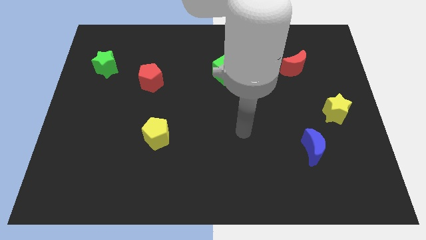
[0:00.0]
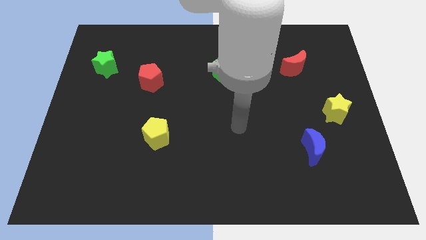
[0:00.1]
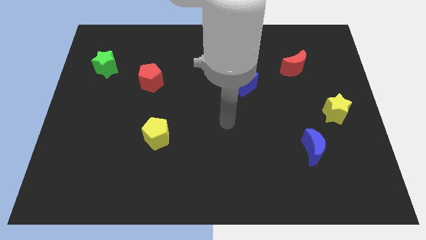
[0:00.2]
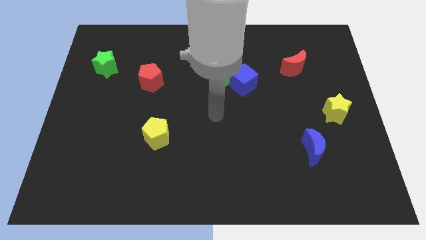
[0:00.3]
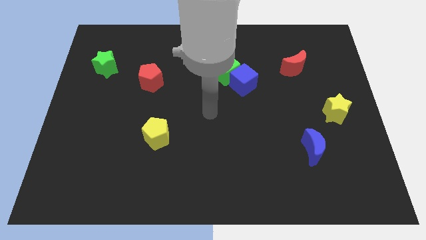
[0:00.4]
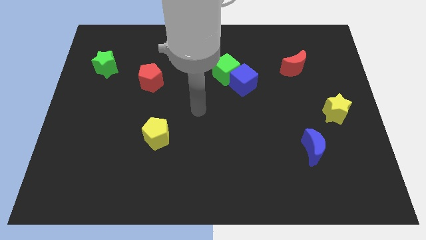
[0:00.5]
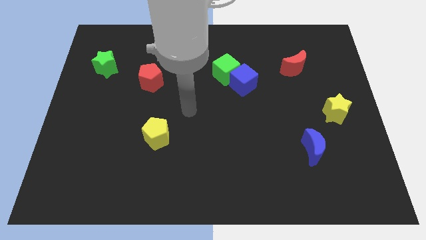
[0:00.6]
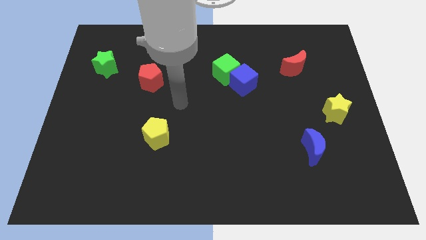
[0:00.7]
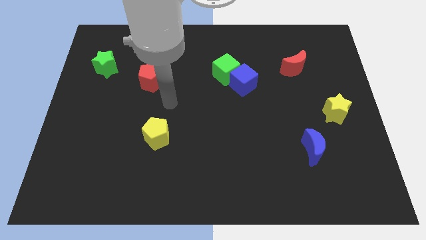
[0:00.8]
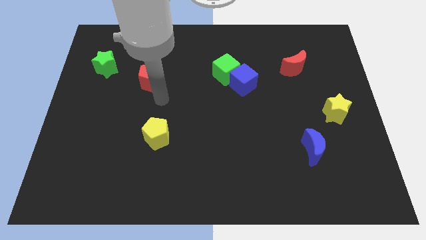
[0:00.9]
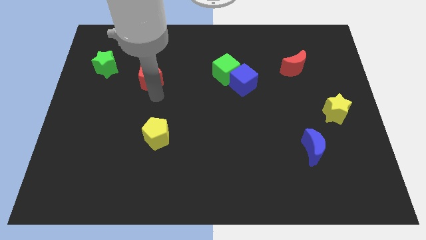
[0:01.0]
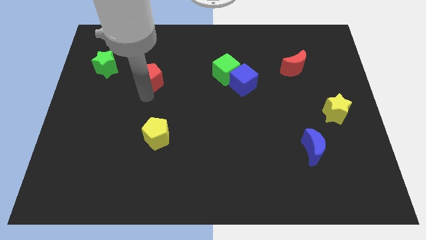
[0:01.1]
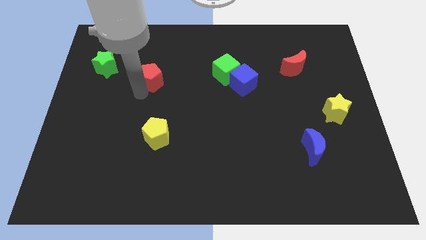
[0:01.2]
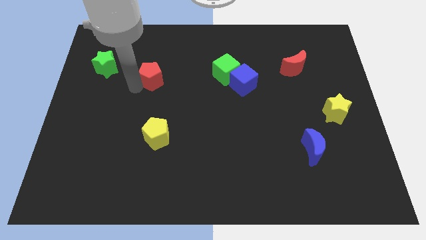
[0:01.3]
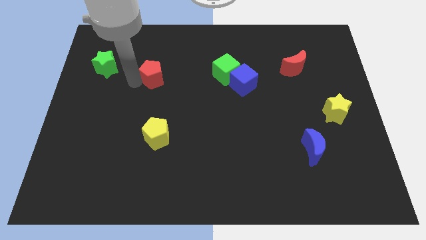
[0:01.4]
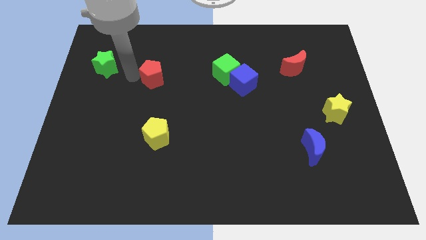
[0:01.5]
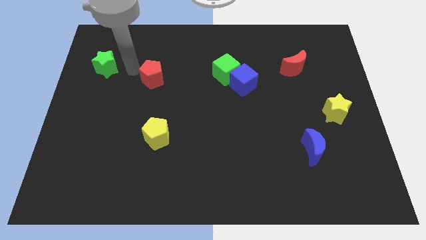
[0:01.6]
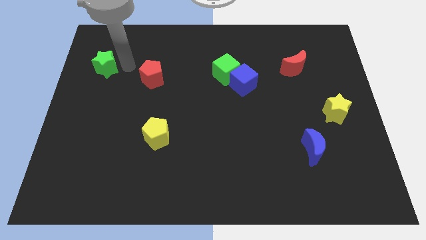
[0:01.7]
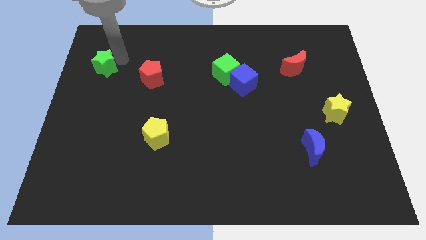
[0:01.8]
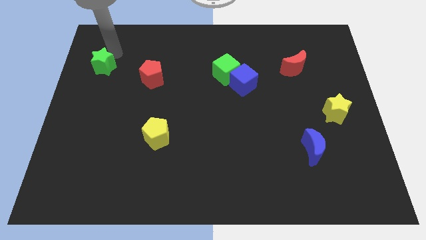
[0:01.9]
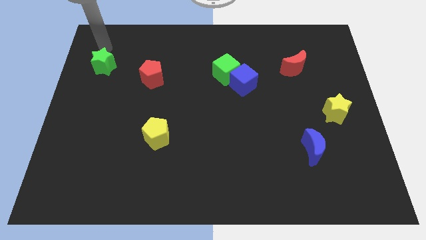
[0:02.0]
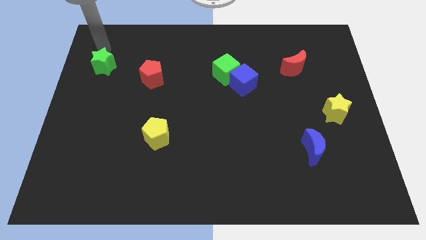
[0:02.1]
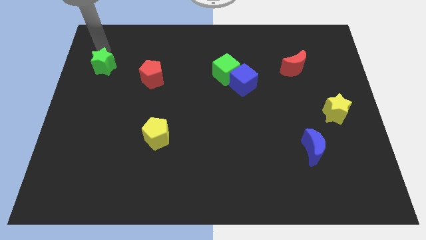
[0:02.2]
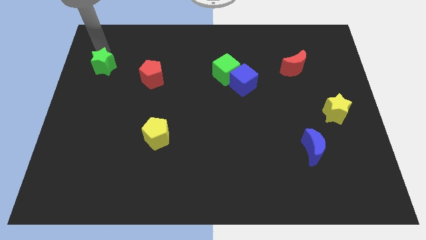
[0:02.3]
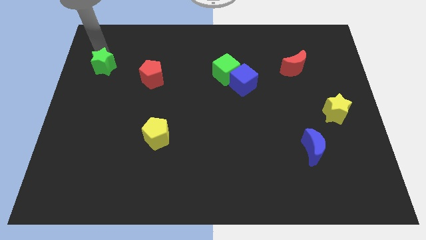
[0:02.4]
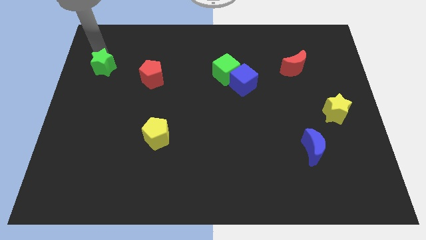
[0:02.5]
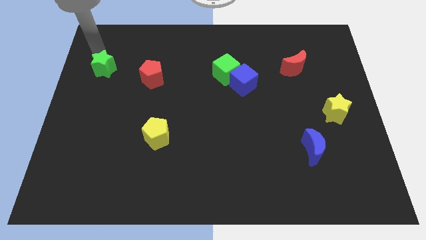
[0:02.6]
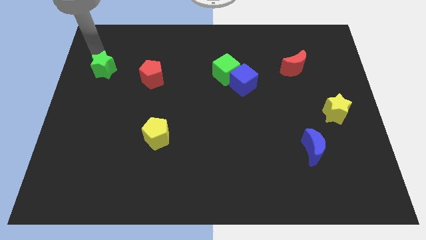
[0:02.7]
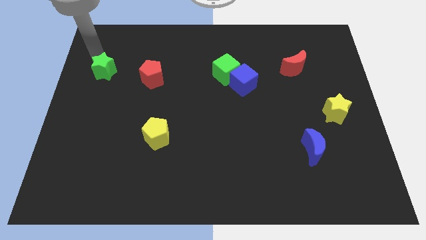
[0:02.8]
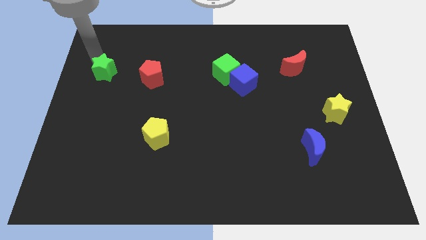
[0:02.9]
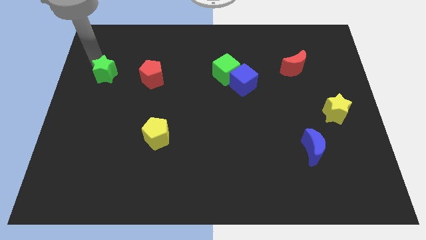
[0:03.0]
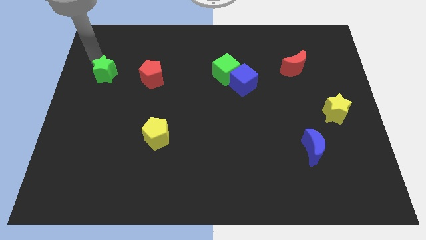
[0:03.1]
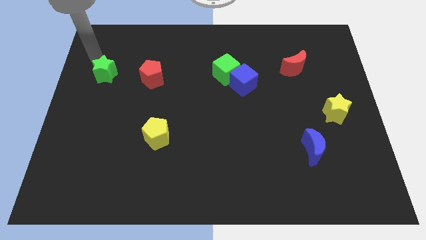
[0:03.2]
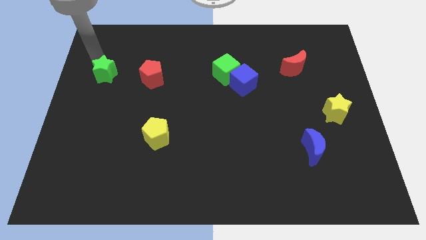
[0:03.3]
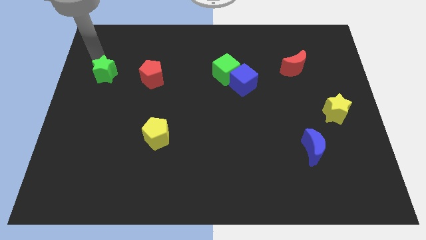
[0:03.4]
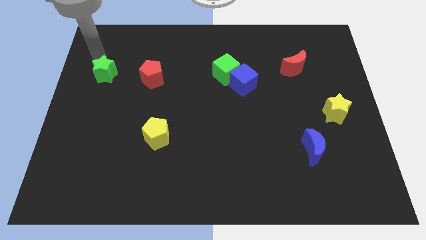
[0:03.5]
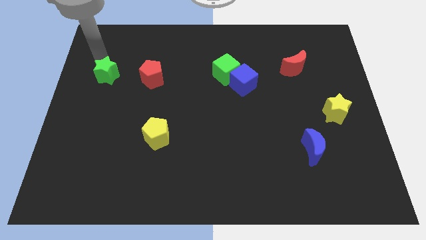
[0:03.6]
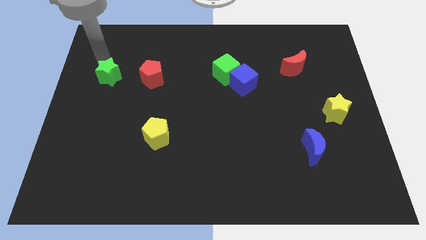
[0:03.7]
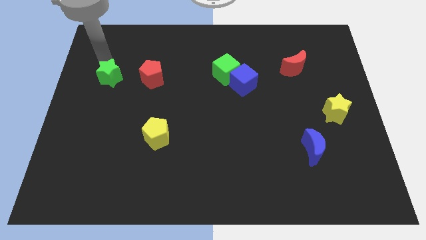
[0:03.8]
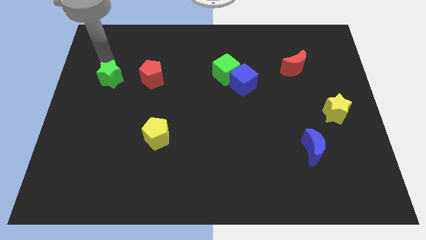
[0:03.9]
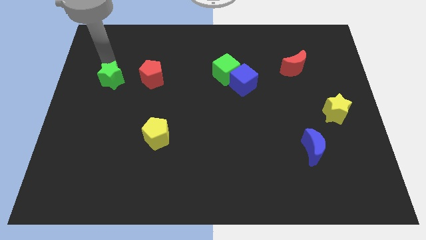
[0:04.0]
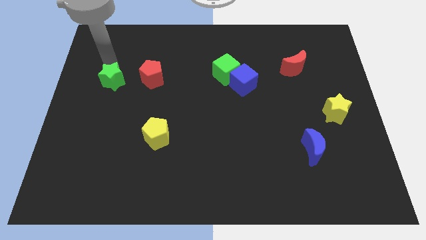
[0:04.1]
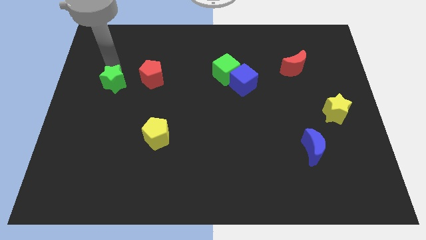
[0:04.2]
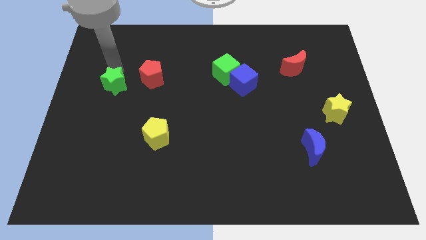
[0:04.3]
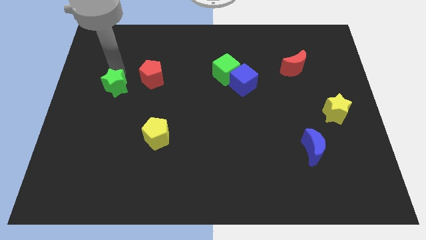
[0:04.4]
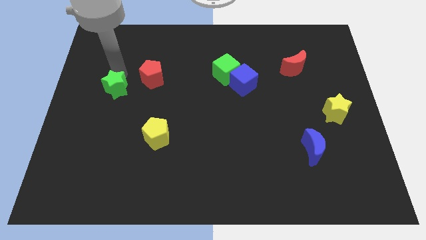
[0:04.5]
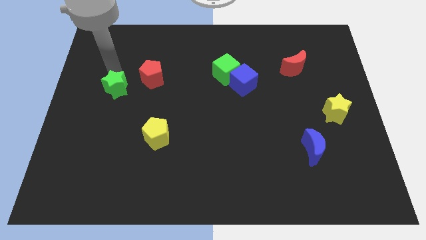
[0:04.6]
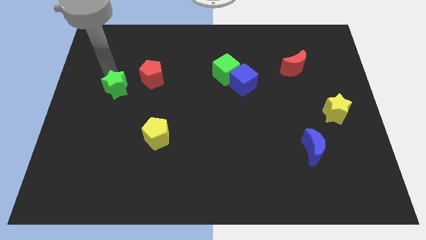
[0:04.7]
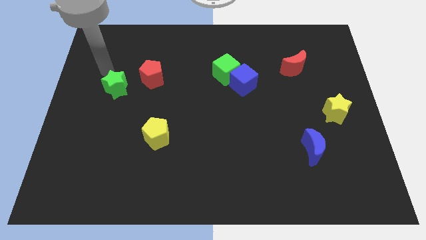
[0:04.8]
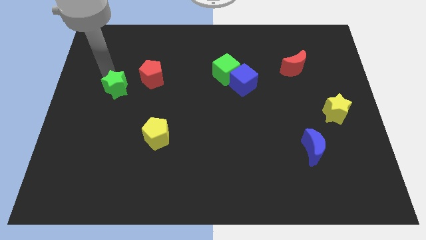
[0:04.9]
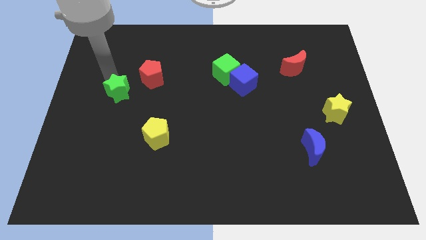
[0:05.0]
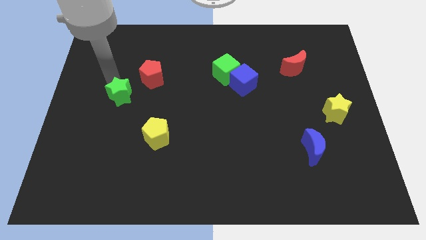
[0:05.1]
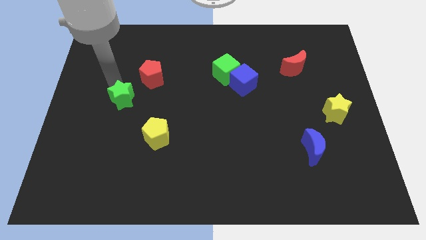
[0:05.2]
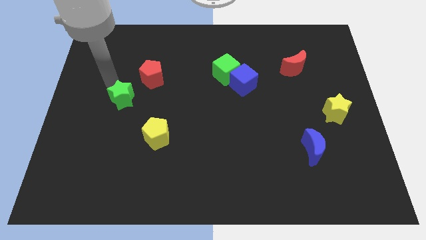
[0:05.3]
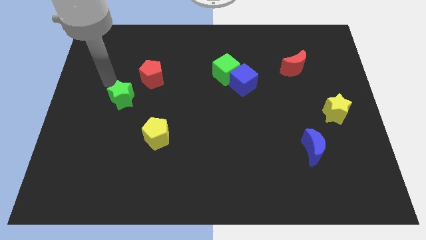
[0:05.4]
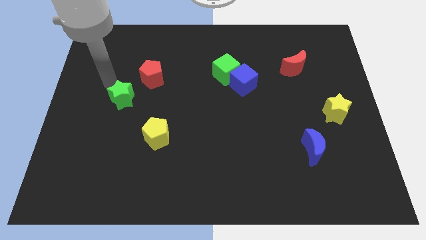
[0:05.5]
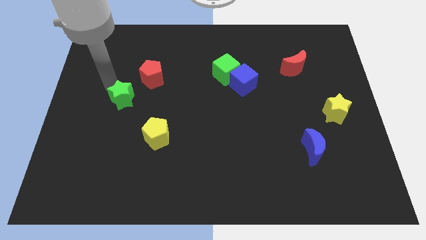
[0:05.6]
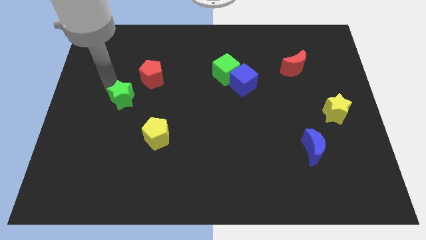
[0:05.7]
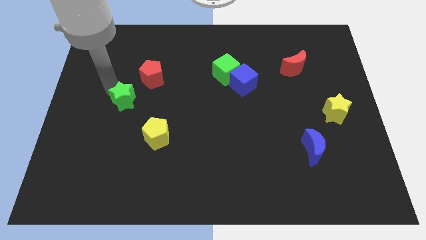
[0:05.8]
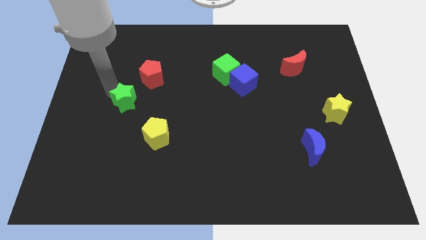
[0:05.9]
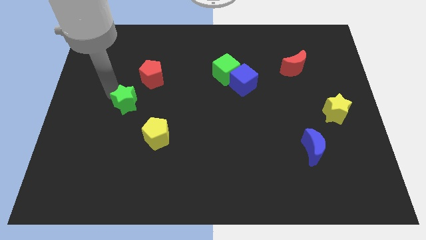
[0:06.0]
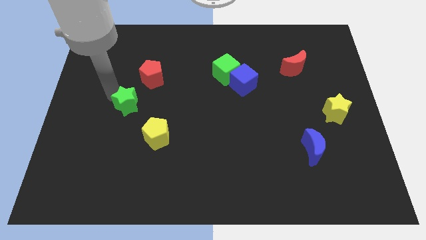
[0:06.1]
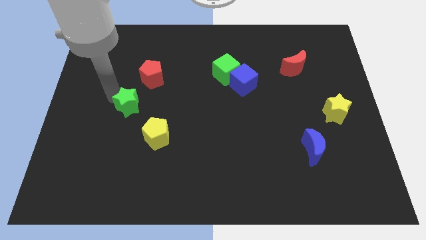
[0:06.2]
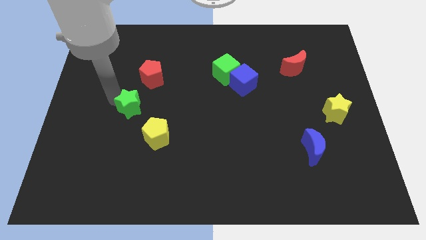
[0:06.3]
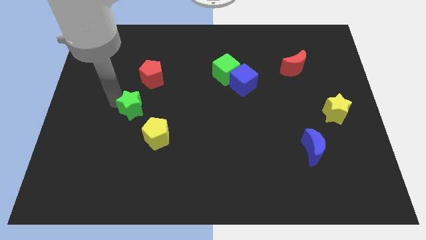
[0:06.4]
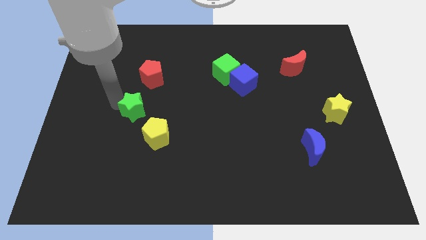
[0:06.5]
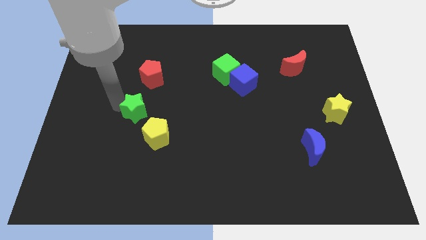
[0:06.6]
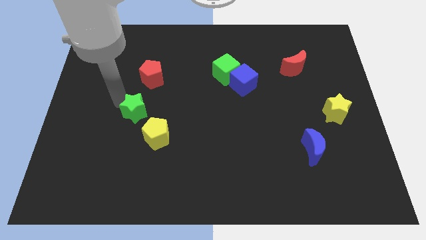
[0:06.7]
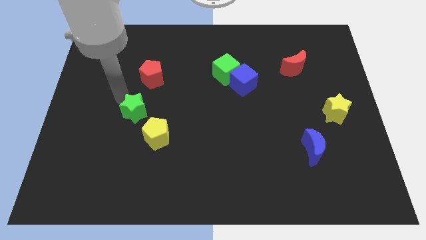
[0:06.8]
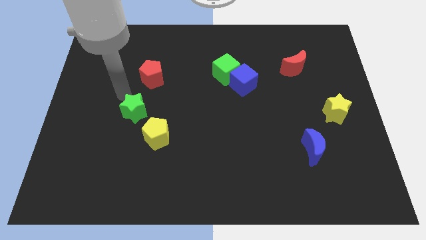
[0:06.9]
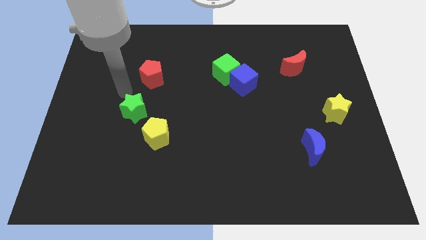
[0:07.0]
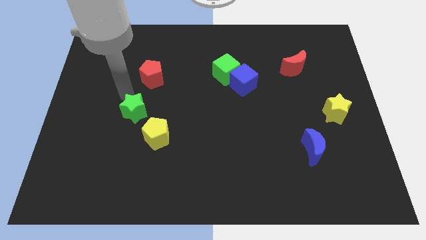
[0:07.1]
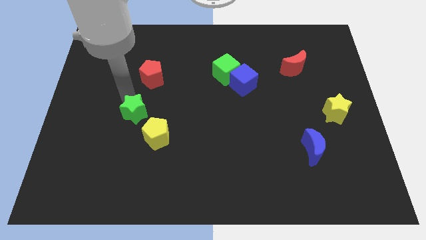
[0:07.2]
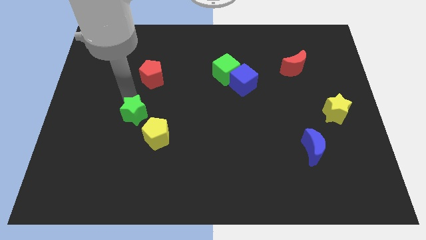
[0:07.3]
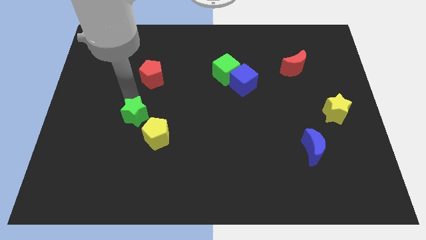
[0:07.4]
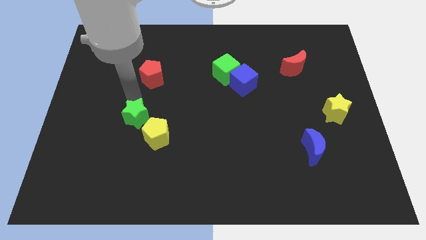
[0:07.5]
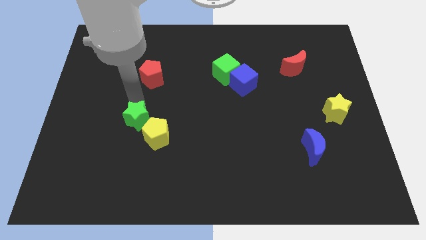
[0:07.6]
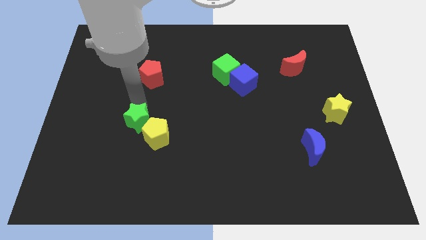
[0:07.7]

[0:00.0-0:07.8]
slide the green star towards the yellow pentagon

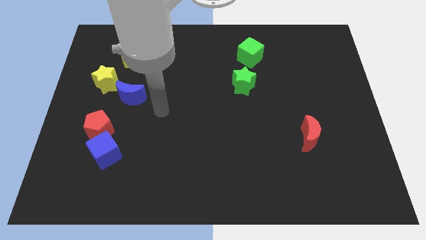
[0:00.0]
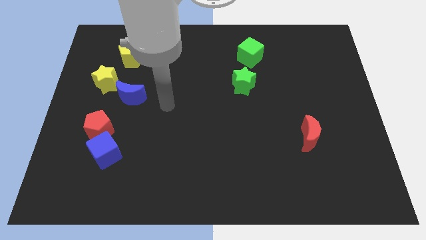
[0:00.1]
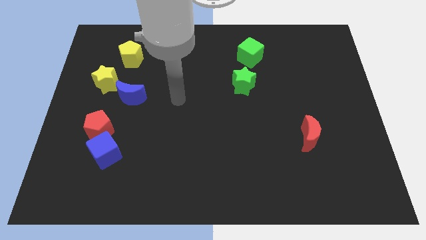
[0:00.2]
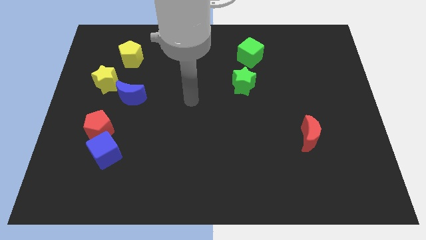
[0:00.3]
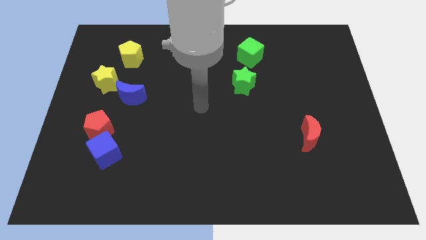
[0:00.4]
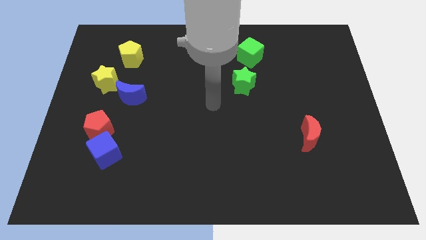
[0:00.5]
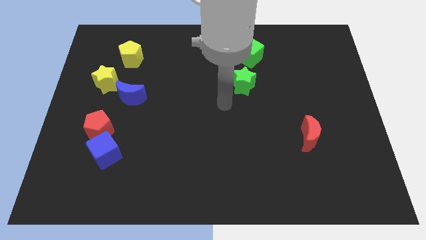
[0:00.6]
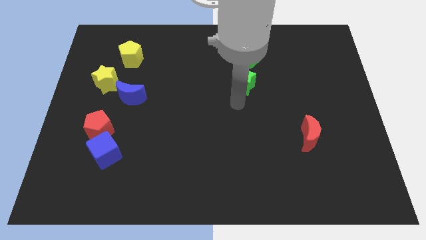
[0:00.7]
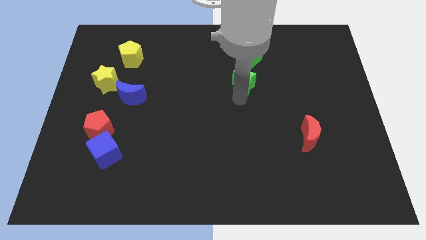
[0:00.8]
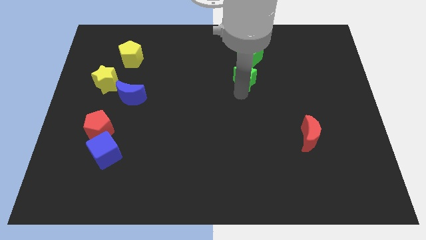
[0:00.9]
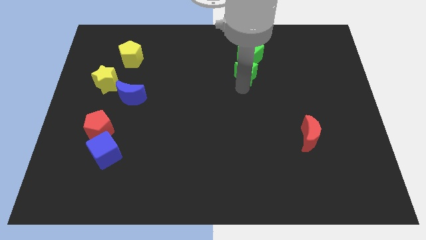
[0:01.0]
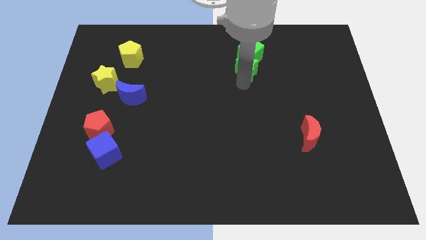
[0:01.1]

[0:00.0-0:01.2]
move the green star close to the green cube
